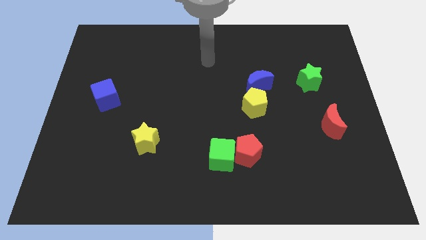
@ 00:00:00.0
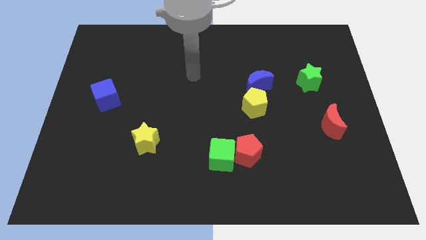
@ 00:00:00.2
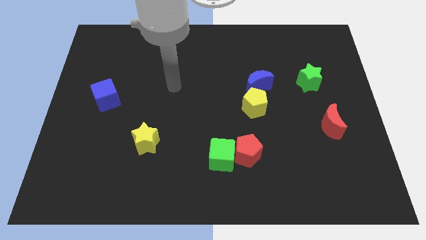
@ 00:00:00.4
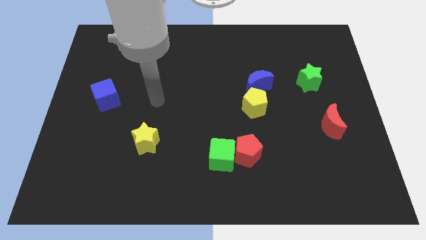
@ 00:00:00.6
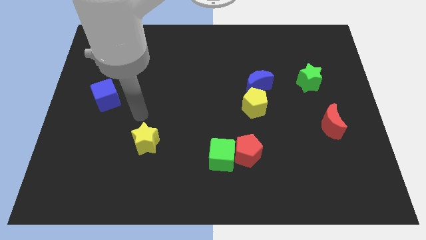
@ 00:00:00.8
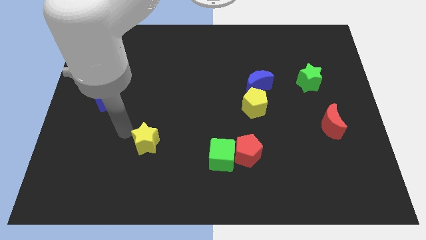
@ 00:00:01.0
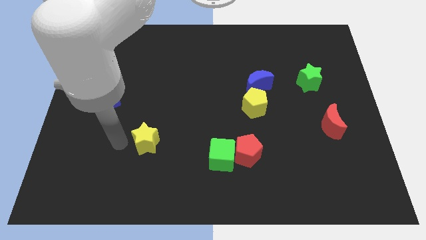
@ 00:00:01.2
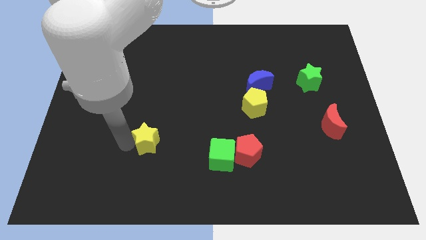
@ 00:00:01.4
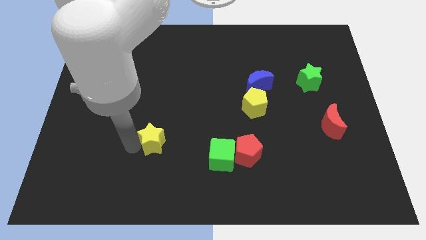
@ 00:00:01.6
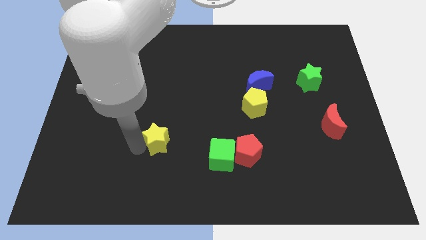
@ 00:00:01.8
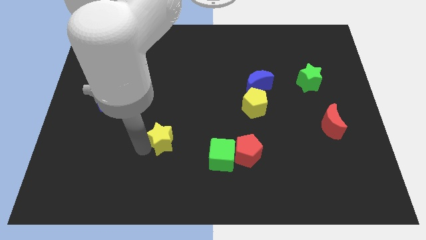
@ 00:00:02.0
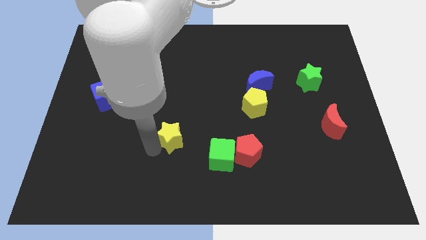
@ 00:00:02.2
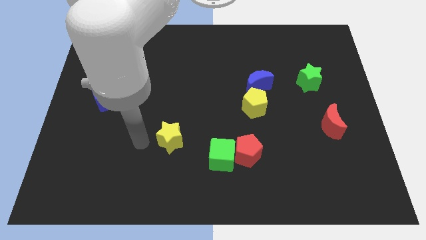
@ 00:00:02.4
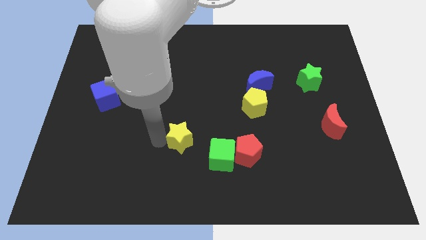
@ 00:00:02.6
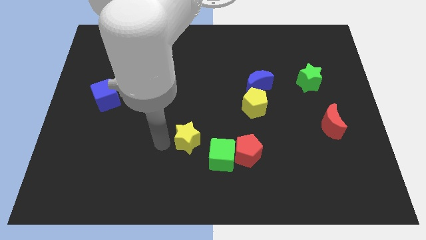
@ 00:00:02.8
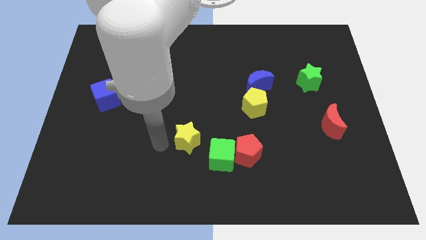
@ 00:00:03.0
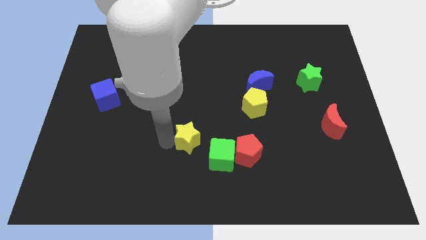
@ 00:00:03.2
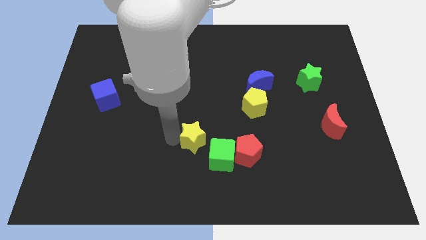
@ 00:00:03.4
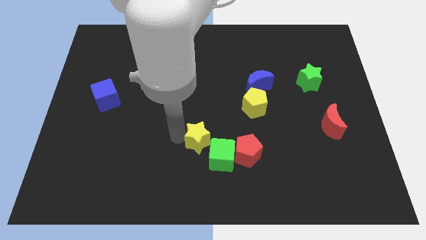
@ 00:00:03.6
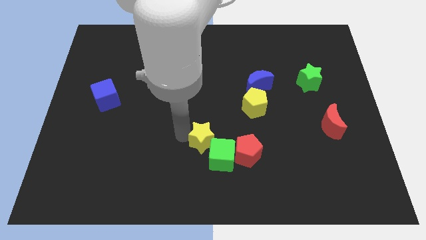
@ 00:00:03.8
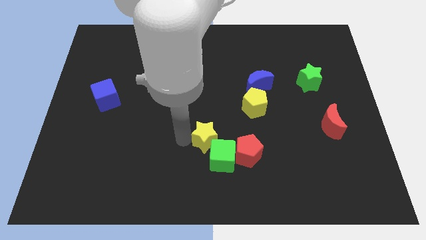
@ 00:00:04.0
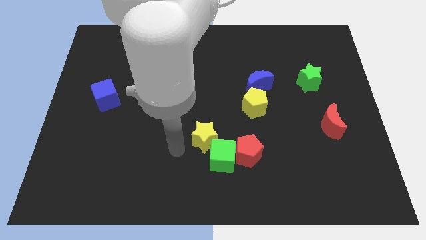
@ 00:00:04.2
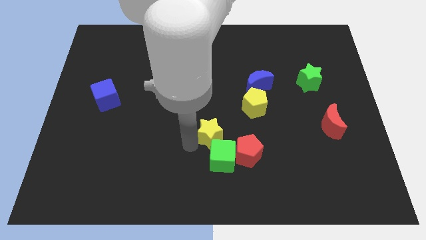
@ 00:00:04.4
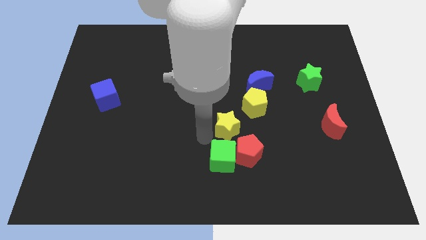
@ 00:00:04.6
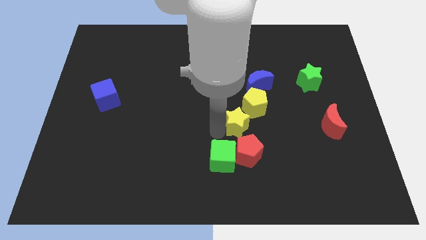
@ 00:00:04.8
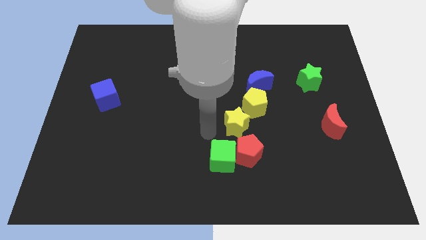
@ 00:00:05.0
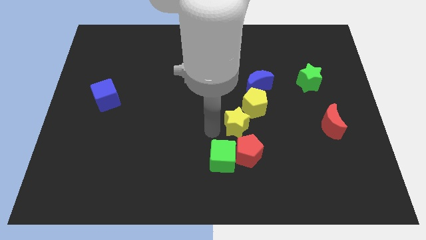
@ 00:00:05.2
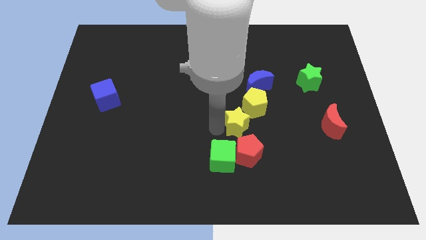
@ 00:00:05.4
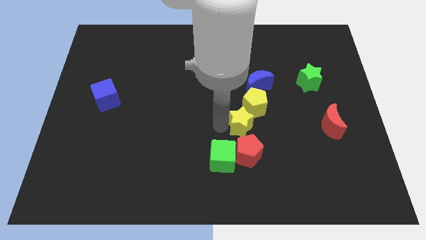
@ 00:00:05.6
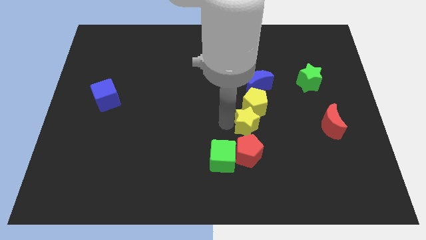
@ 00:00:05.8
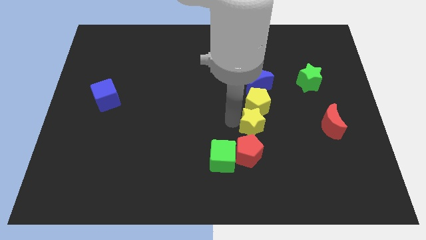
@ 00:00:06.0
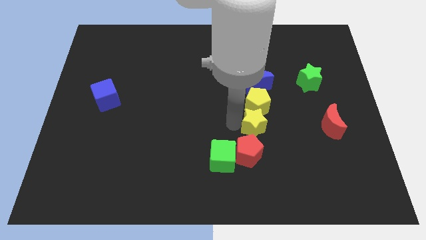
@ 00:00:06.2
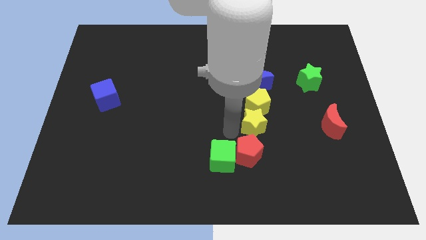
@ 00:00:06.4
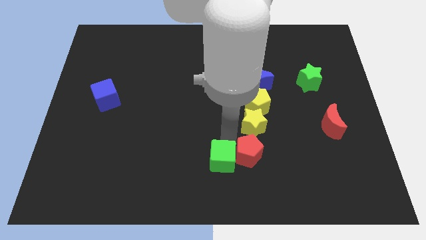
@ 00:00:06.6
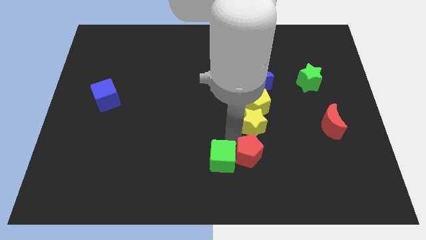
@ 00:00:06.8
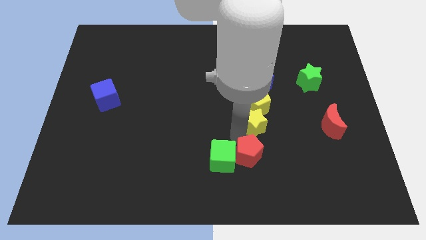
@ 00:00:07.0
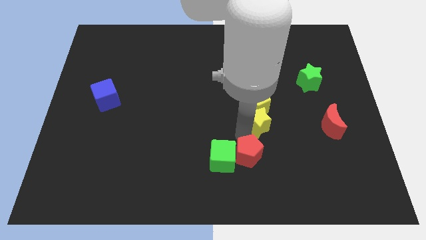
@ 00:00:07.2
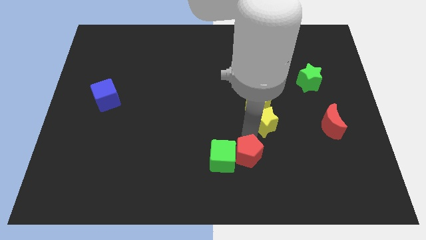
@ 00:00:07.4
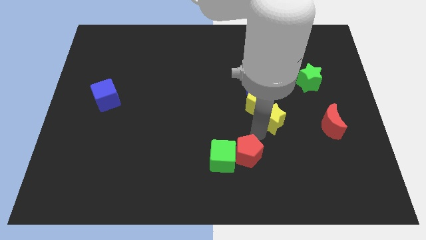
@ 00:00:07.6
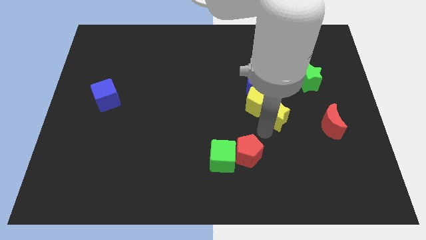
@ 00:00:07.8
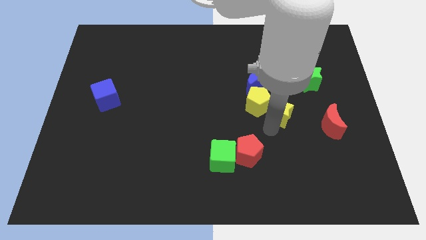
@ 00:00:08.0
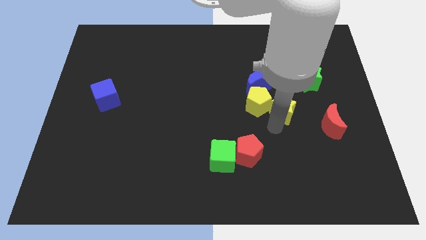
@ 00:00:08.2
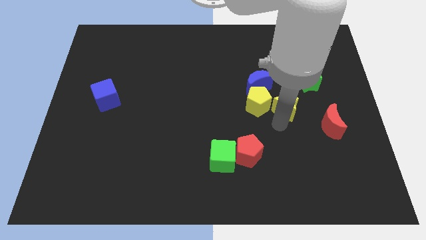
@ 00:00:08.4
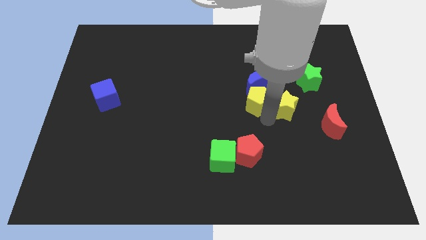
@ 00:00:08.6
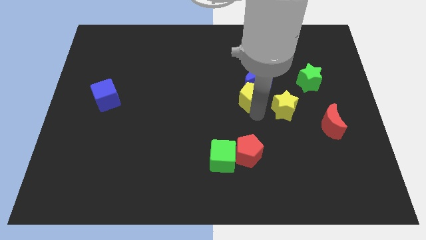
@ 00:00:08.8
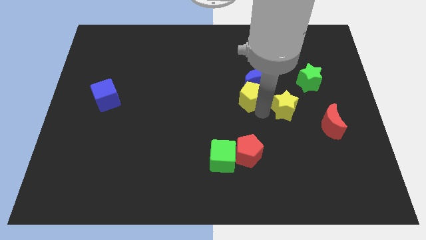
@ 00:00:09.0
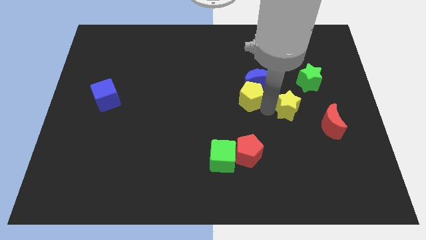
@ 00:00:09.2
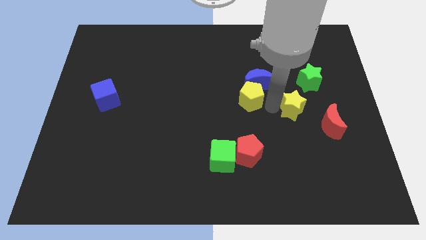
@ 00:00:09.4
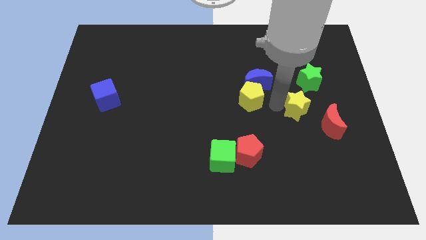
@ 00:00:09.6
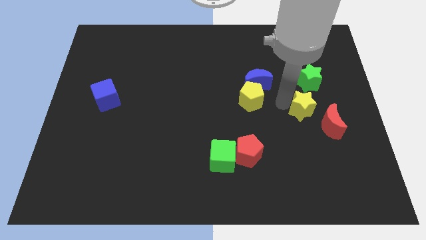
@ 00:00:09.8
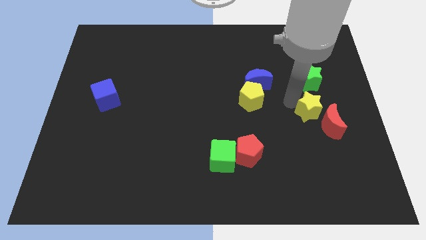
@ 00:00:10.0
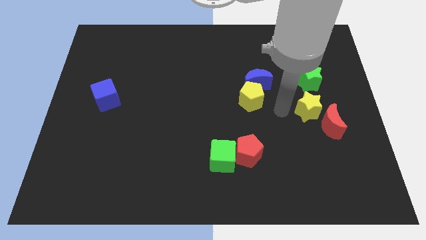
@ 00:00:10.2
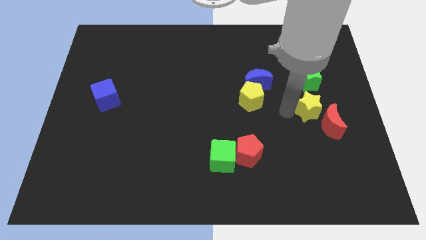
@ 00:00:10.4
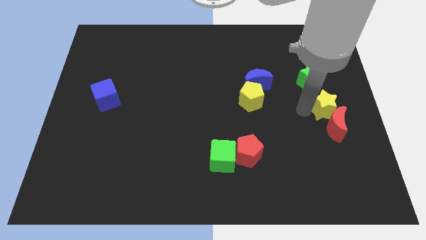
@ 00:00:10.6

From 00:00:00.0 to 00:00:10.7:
slide the yellow star to the right side

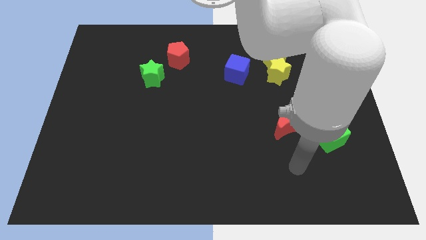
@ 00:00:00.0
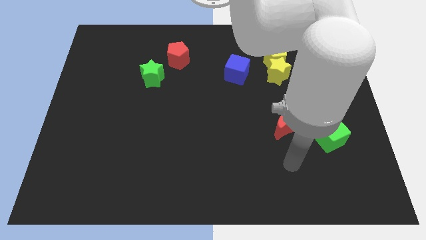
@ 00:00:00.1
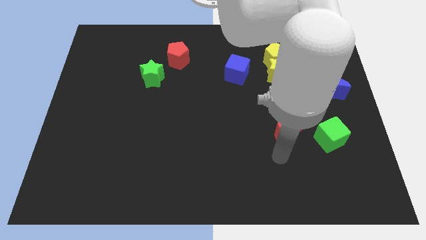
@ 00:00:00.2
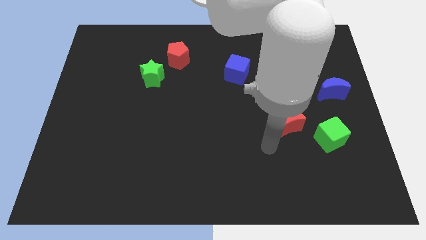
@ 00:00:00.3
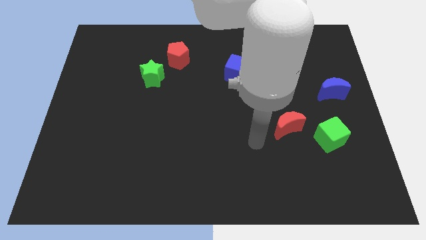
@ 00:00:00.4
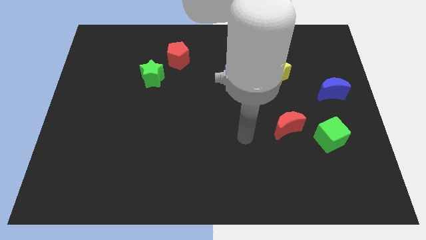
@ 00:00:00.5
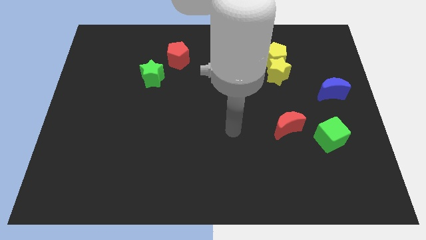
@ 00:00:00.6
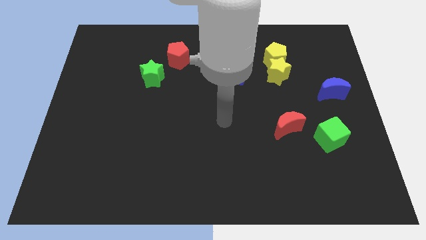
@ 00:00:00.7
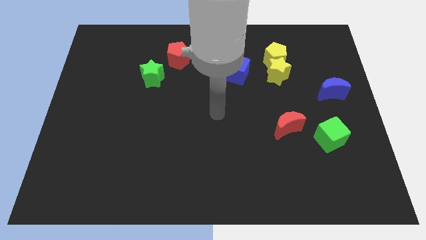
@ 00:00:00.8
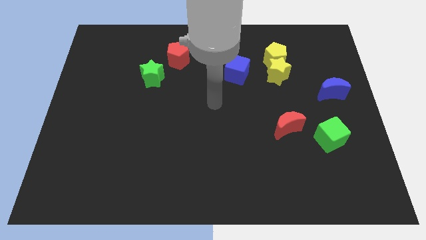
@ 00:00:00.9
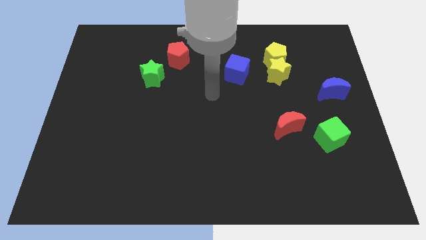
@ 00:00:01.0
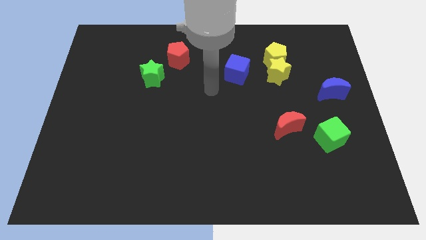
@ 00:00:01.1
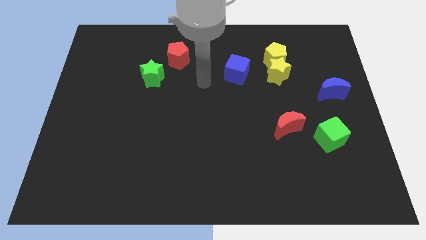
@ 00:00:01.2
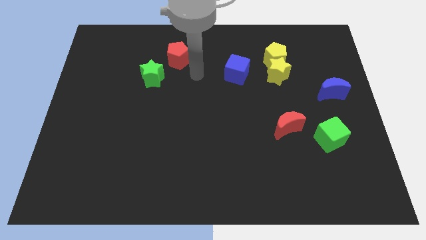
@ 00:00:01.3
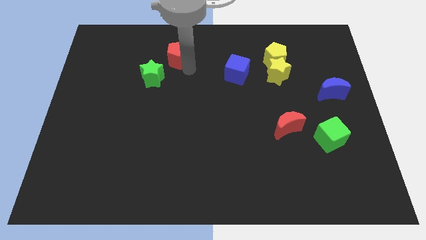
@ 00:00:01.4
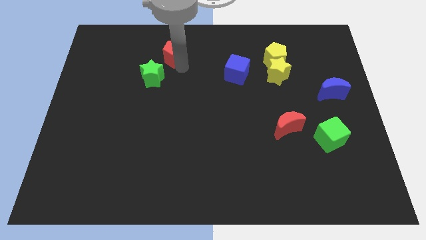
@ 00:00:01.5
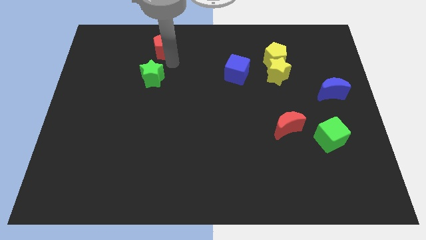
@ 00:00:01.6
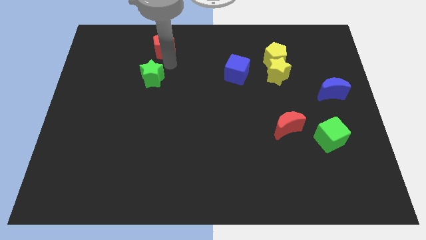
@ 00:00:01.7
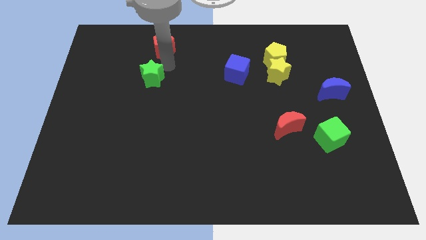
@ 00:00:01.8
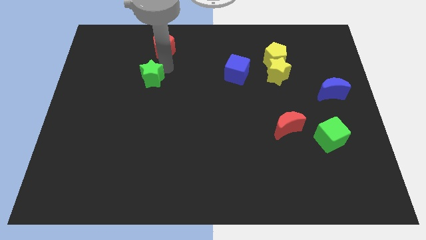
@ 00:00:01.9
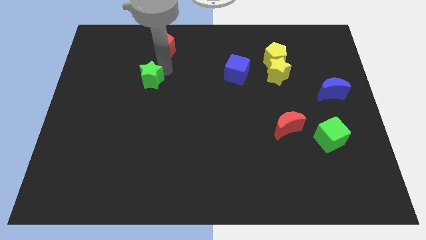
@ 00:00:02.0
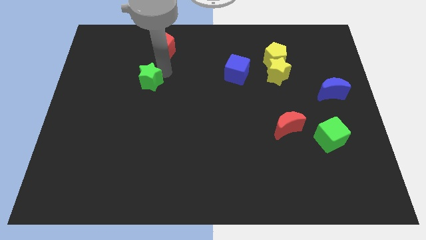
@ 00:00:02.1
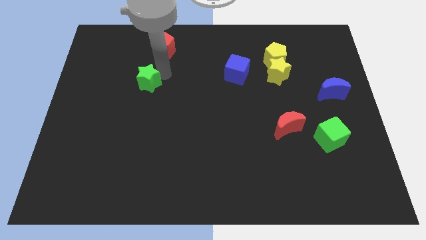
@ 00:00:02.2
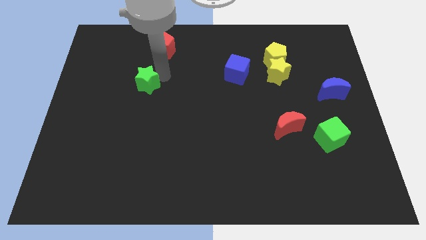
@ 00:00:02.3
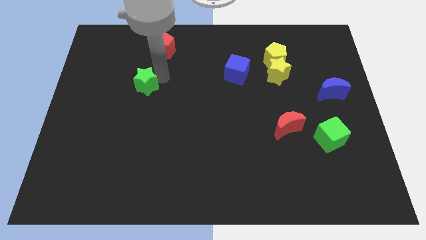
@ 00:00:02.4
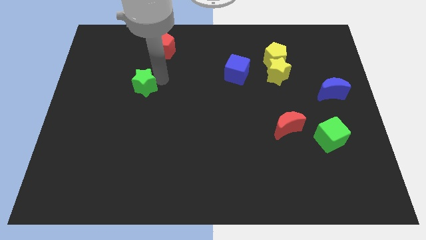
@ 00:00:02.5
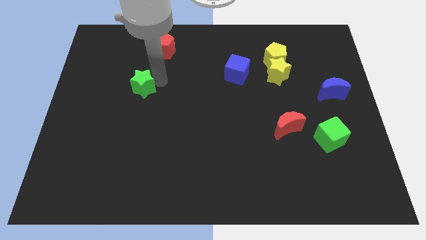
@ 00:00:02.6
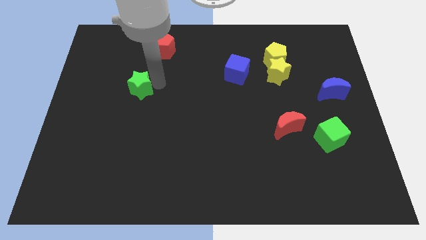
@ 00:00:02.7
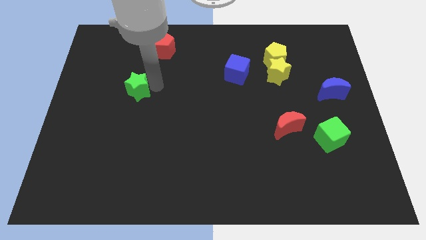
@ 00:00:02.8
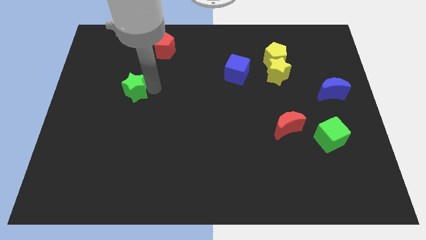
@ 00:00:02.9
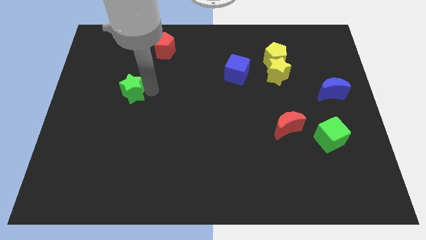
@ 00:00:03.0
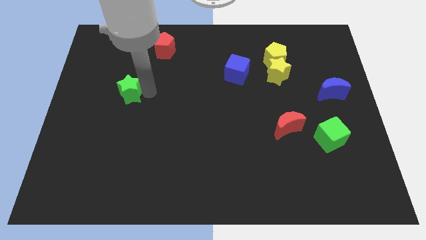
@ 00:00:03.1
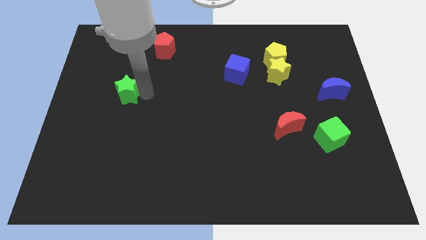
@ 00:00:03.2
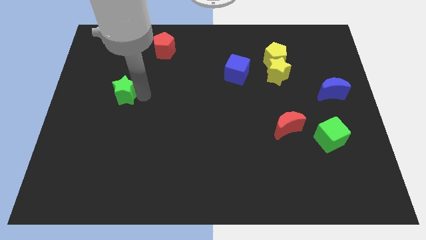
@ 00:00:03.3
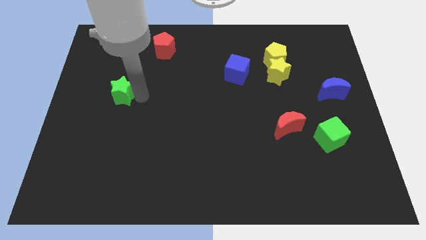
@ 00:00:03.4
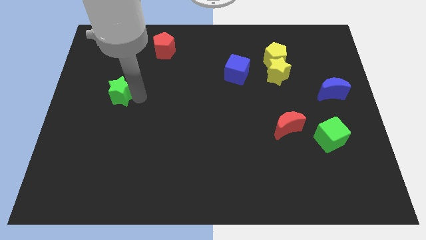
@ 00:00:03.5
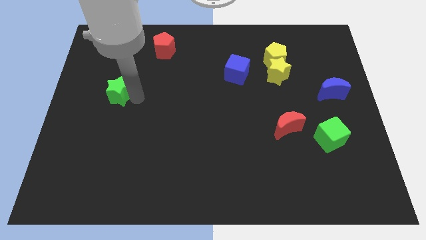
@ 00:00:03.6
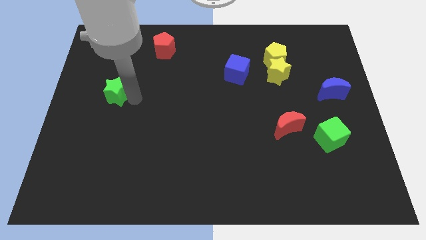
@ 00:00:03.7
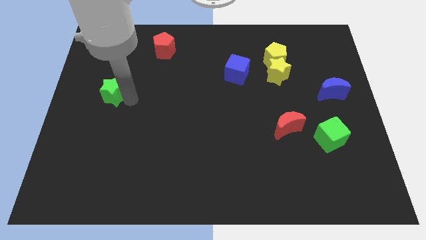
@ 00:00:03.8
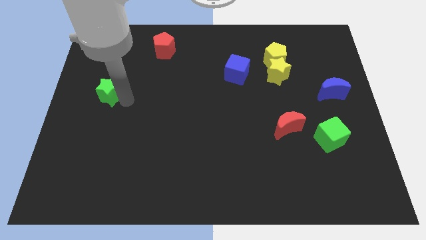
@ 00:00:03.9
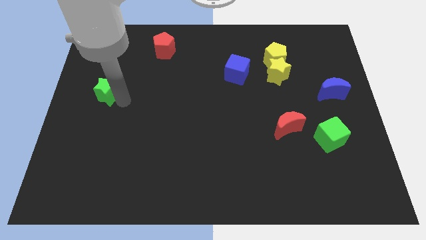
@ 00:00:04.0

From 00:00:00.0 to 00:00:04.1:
push the green star to the left side
